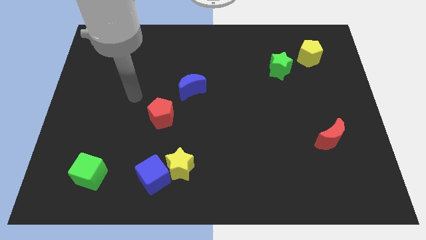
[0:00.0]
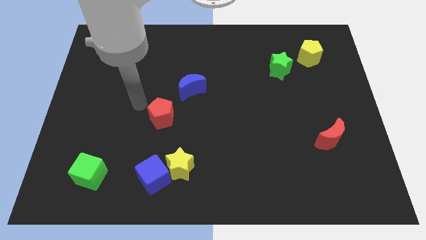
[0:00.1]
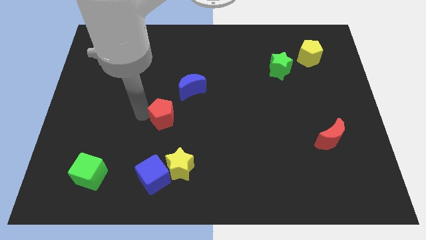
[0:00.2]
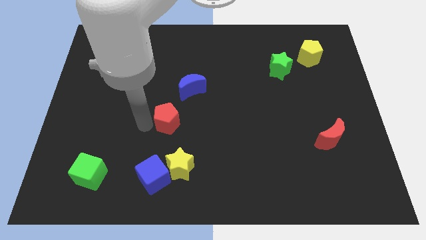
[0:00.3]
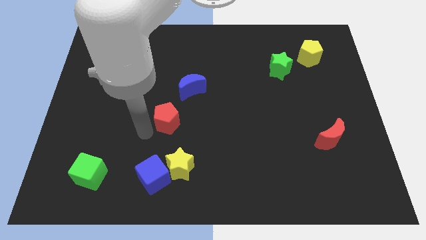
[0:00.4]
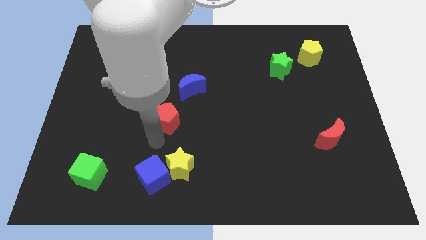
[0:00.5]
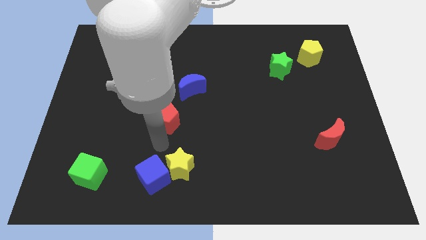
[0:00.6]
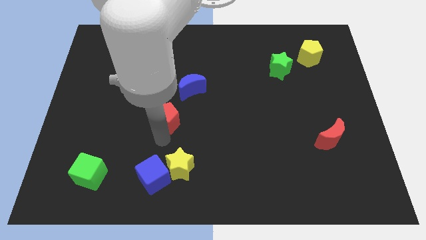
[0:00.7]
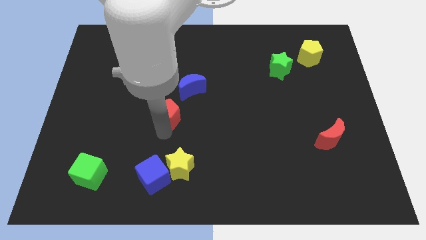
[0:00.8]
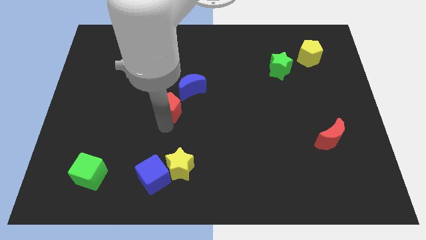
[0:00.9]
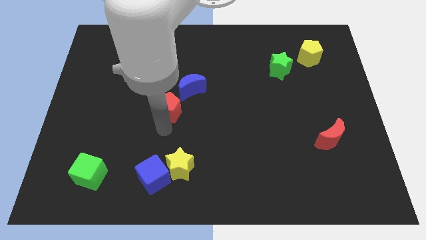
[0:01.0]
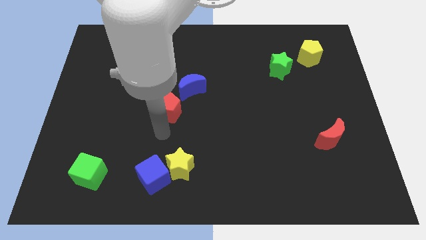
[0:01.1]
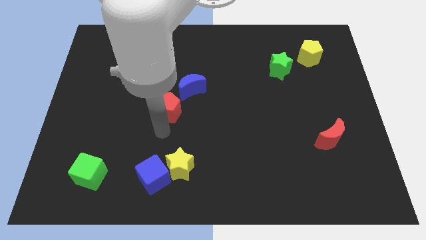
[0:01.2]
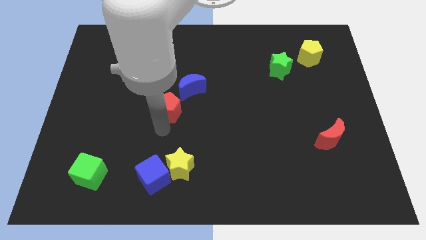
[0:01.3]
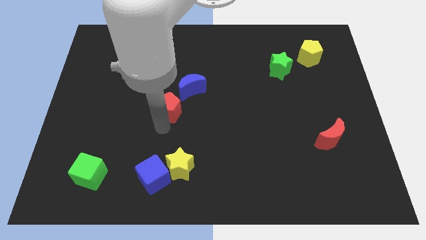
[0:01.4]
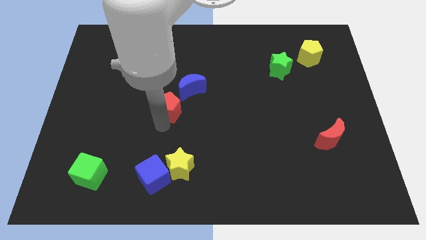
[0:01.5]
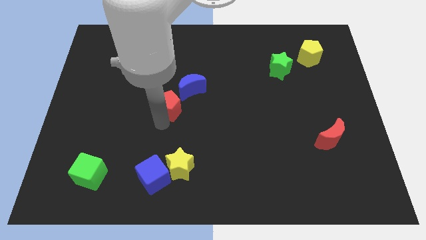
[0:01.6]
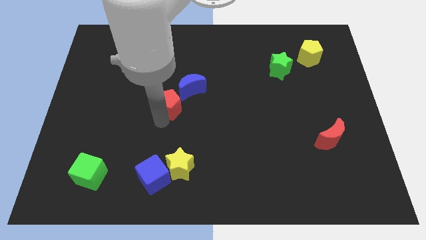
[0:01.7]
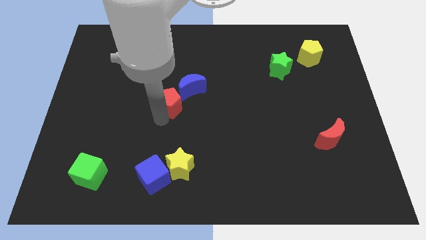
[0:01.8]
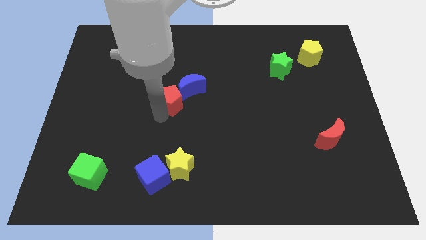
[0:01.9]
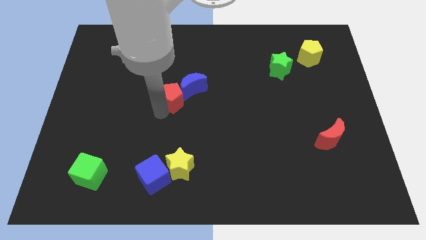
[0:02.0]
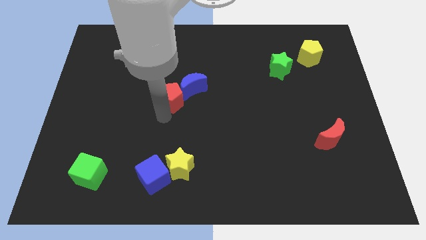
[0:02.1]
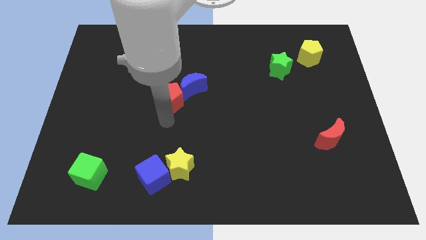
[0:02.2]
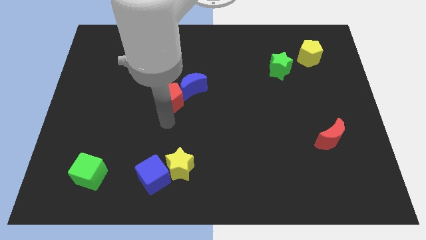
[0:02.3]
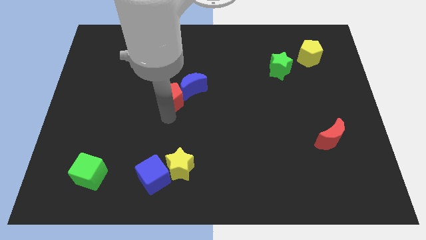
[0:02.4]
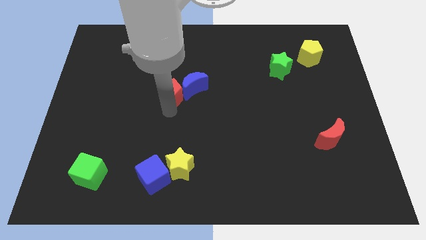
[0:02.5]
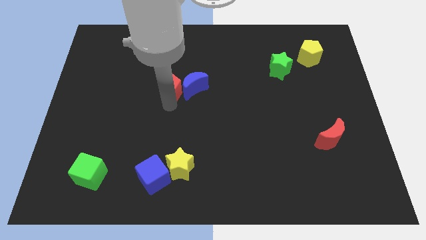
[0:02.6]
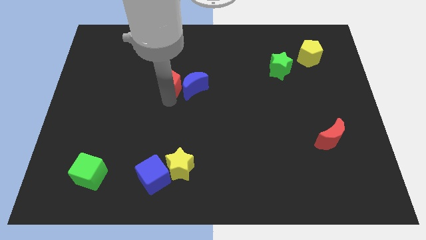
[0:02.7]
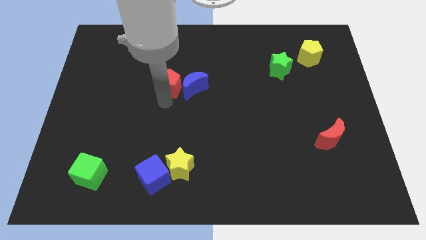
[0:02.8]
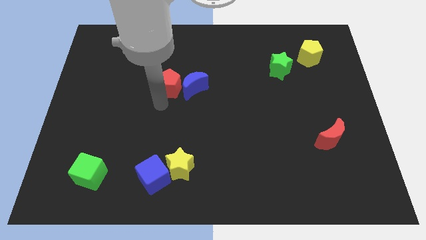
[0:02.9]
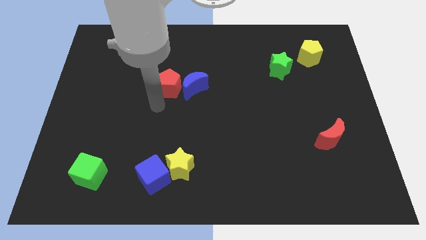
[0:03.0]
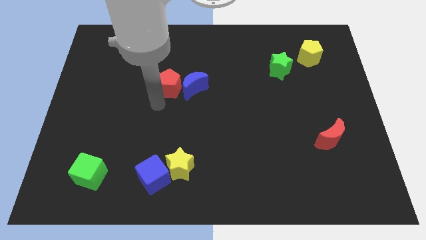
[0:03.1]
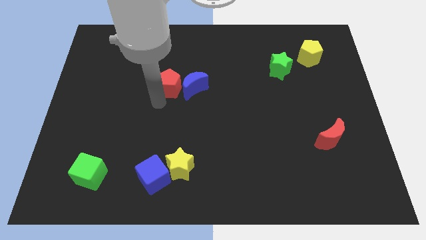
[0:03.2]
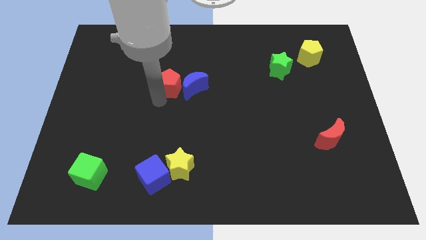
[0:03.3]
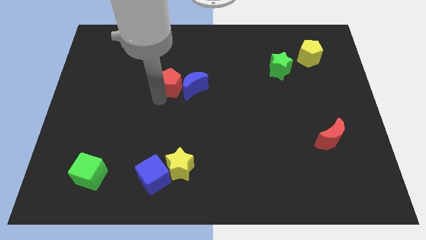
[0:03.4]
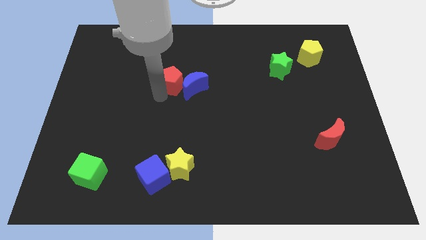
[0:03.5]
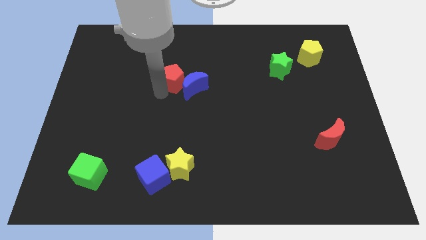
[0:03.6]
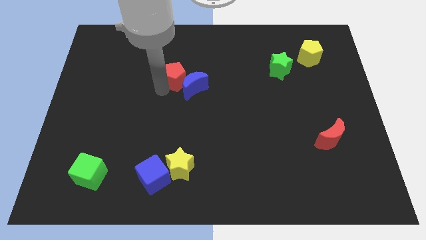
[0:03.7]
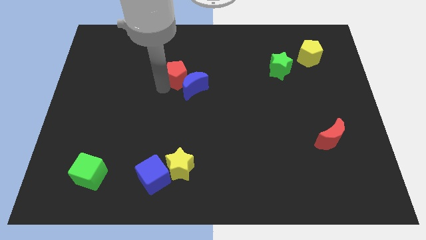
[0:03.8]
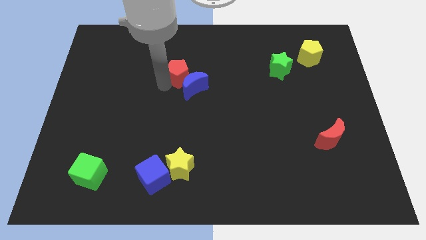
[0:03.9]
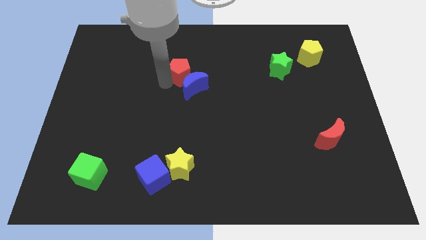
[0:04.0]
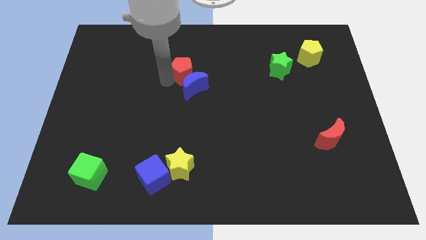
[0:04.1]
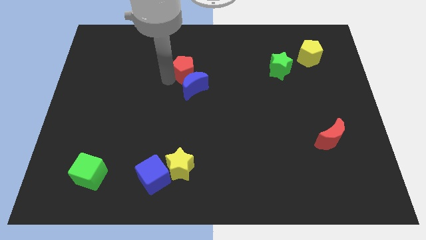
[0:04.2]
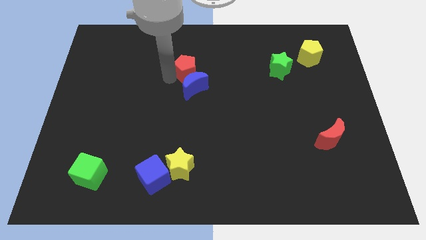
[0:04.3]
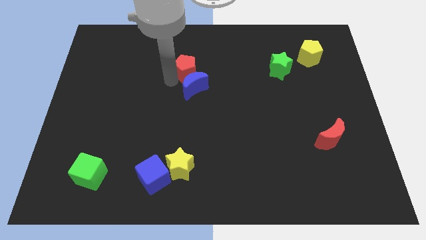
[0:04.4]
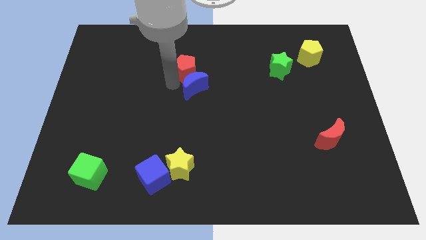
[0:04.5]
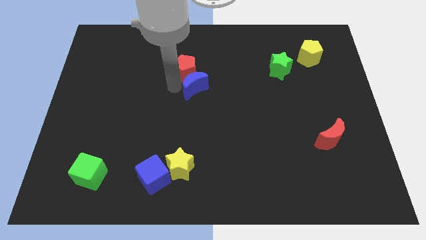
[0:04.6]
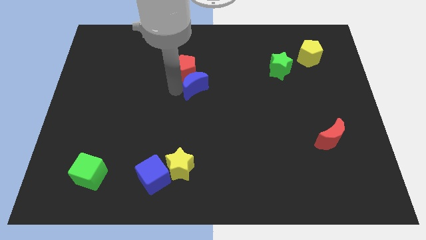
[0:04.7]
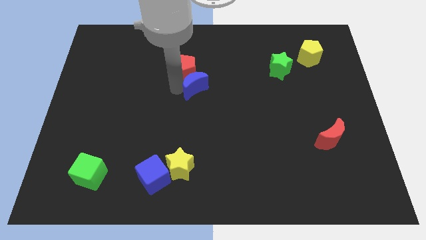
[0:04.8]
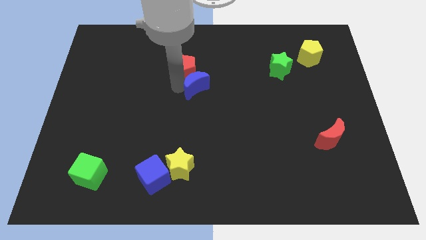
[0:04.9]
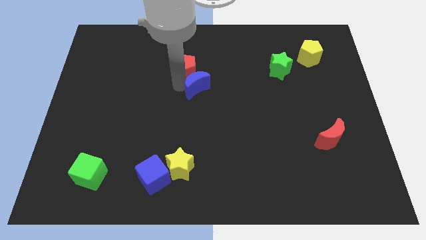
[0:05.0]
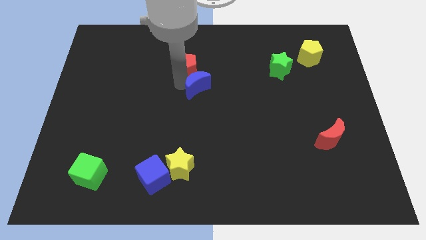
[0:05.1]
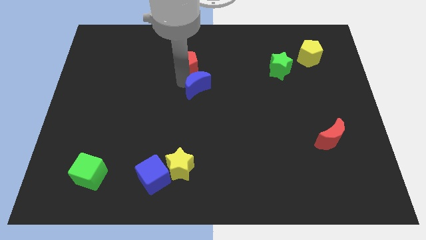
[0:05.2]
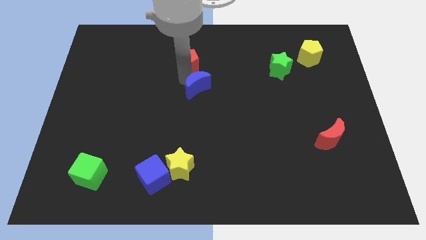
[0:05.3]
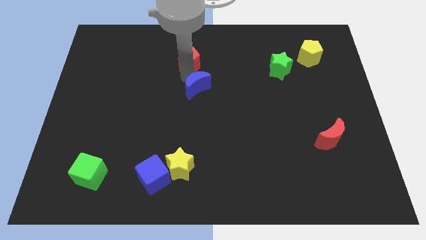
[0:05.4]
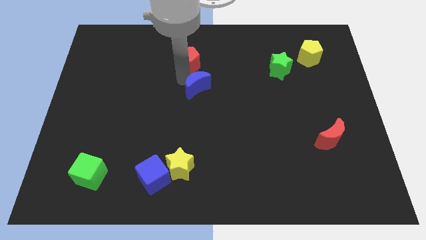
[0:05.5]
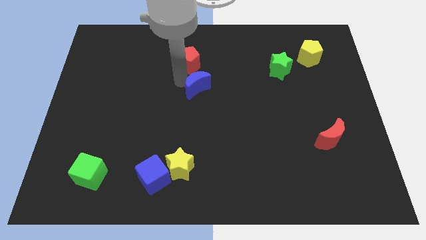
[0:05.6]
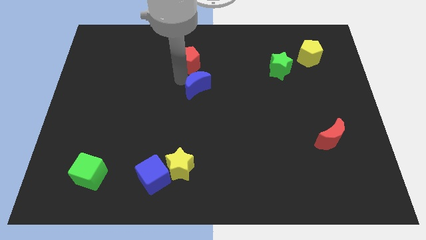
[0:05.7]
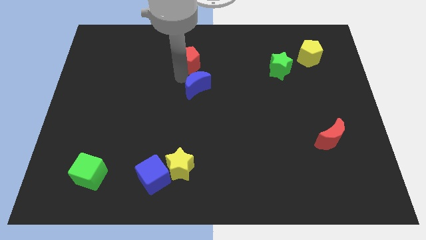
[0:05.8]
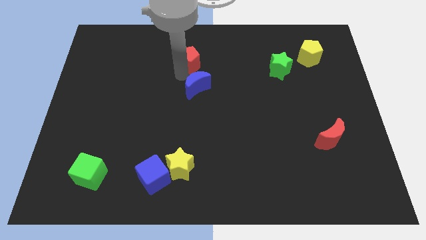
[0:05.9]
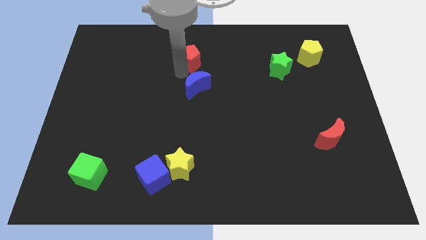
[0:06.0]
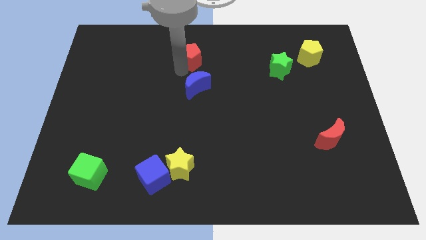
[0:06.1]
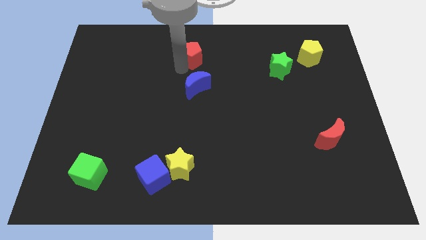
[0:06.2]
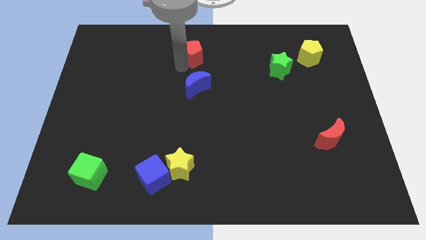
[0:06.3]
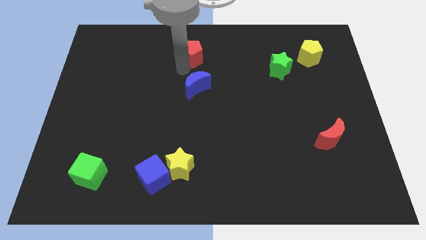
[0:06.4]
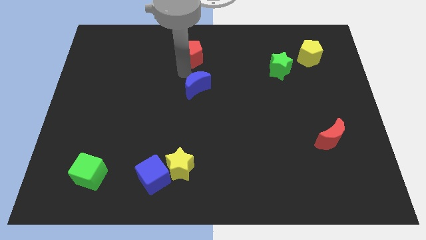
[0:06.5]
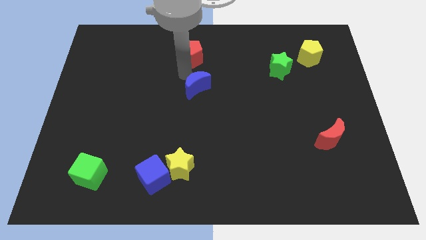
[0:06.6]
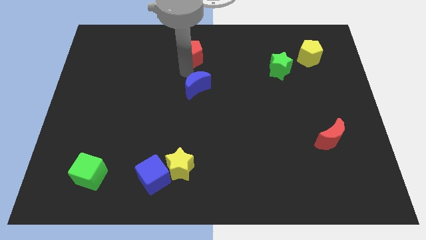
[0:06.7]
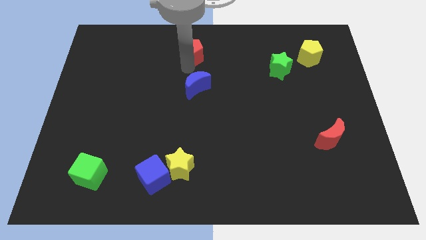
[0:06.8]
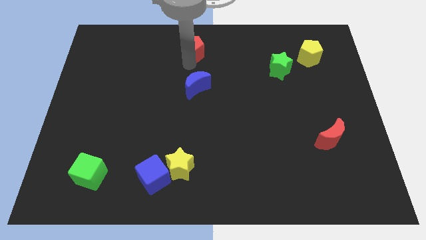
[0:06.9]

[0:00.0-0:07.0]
put the red pentagon to the towards your base
